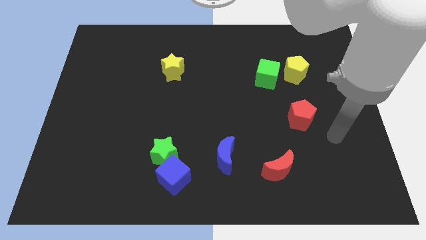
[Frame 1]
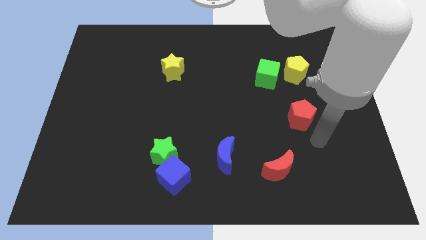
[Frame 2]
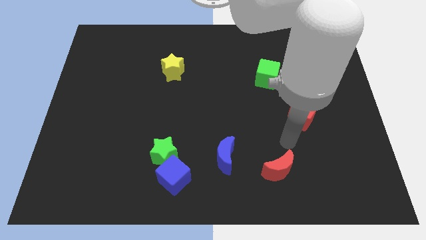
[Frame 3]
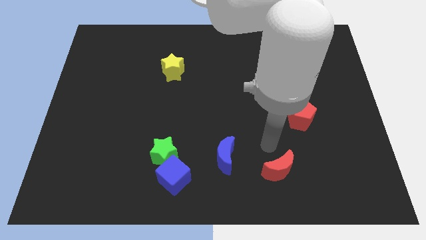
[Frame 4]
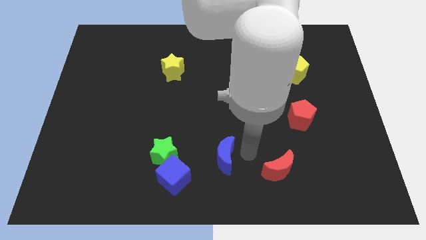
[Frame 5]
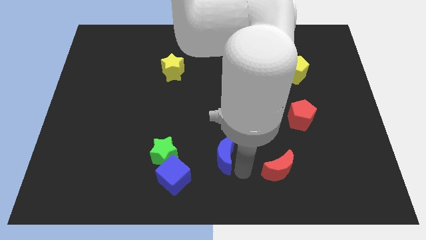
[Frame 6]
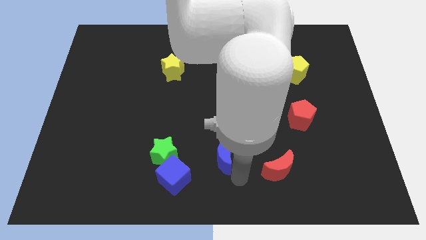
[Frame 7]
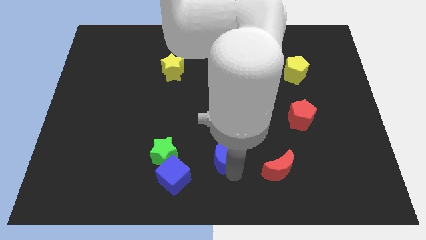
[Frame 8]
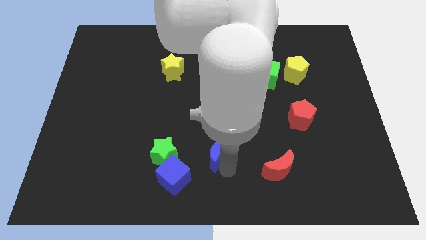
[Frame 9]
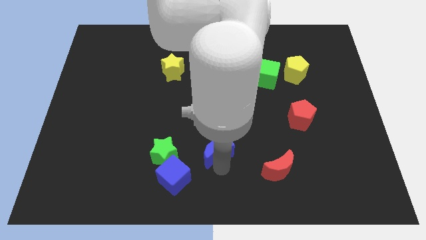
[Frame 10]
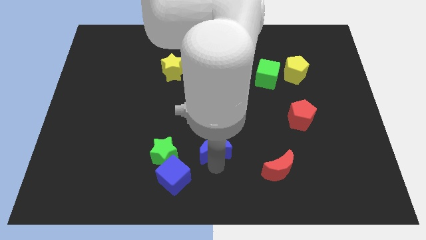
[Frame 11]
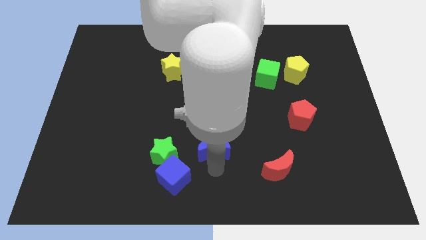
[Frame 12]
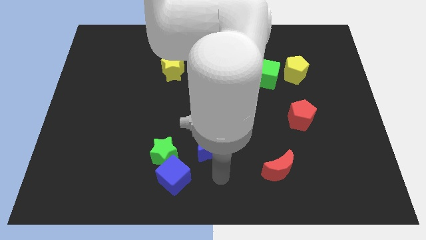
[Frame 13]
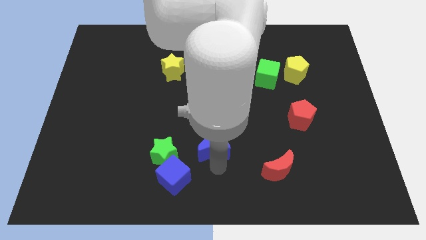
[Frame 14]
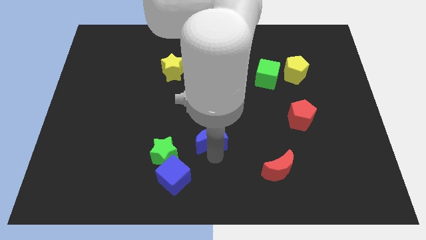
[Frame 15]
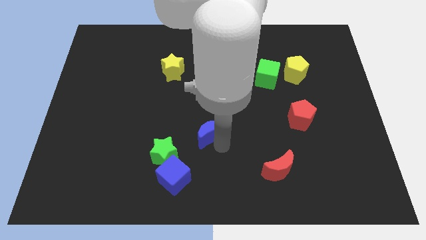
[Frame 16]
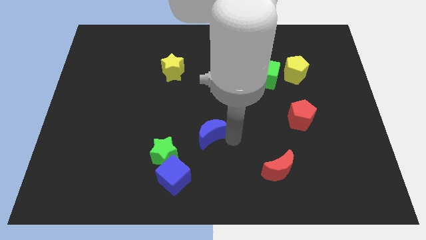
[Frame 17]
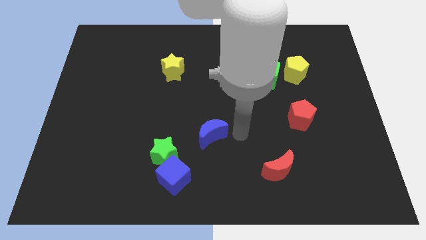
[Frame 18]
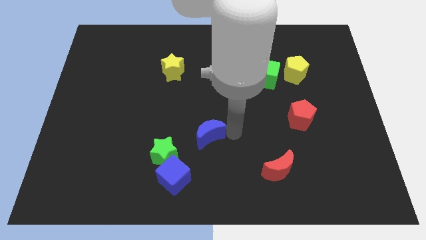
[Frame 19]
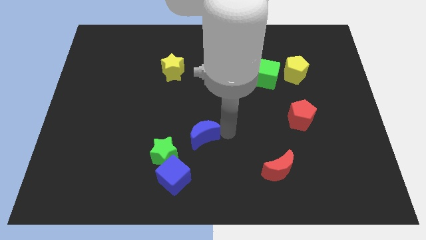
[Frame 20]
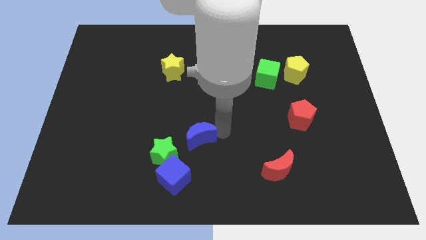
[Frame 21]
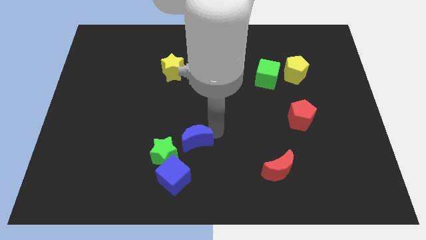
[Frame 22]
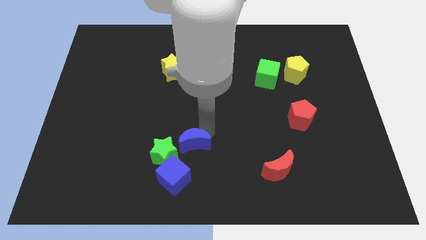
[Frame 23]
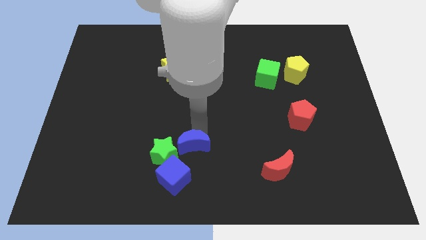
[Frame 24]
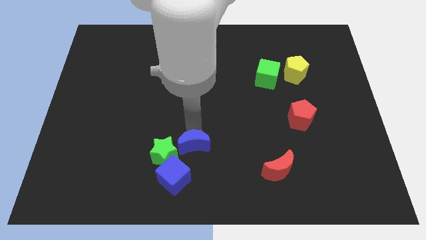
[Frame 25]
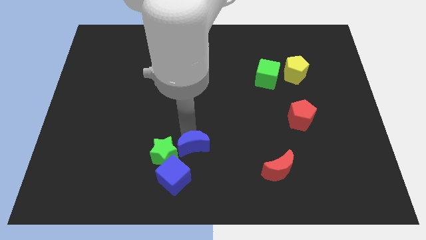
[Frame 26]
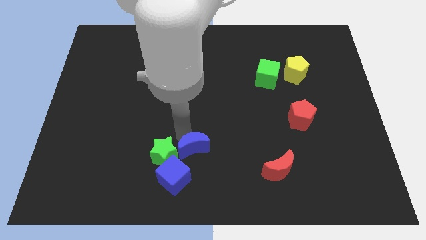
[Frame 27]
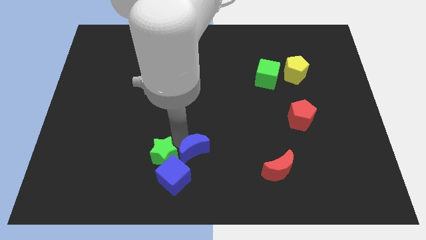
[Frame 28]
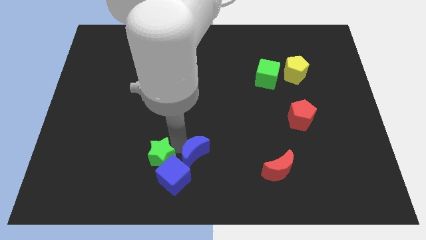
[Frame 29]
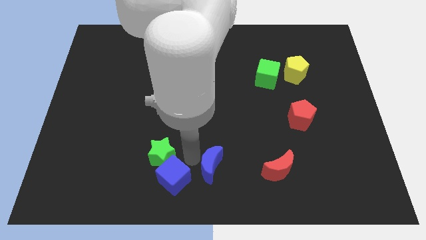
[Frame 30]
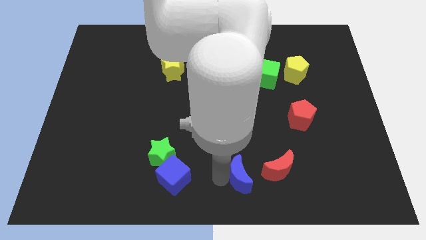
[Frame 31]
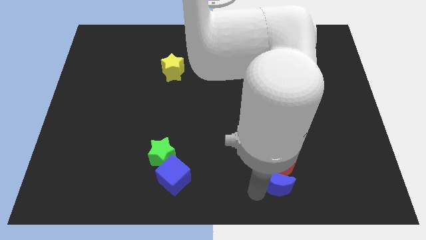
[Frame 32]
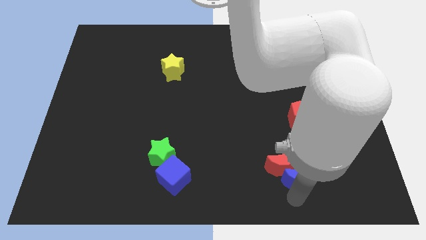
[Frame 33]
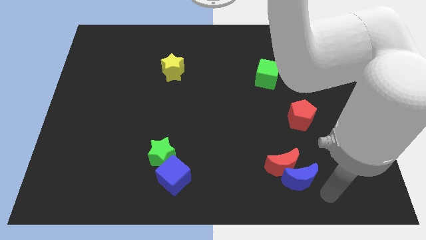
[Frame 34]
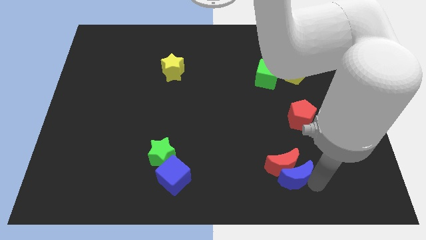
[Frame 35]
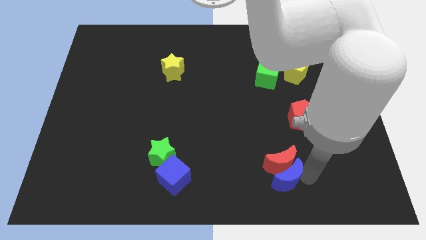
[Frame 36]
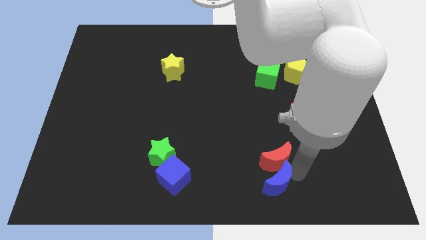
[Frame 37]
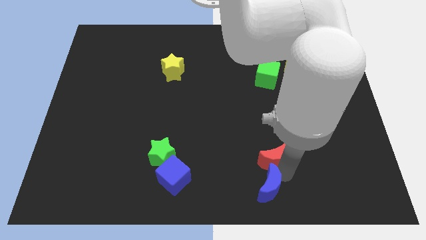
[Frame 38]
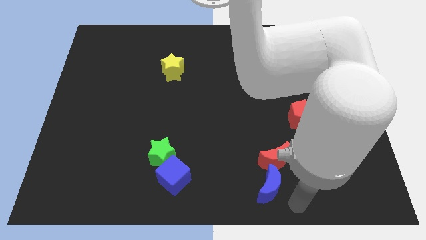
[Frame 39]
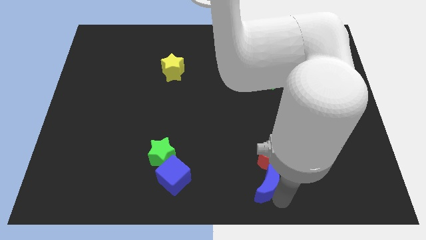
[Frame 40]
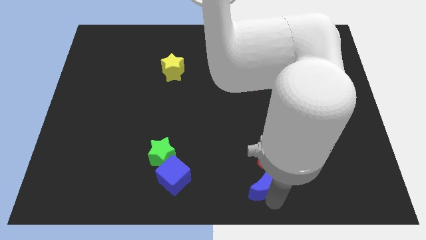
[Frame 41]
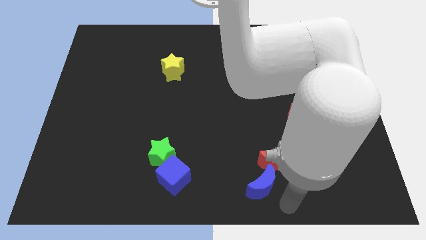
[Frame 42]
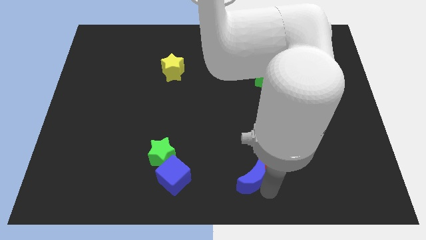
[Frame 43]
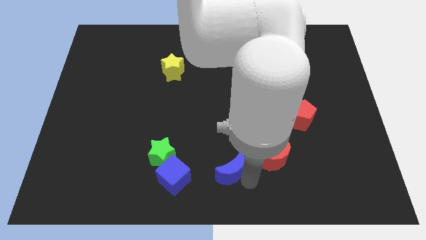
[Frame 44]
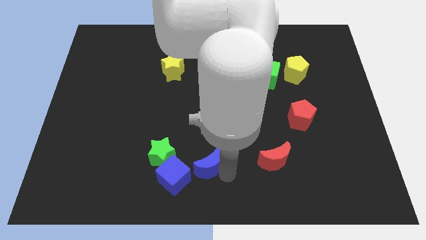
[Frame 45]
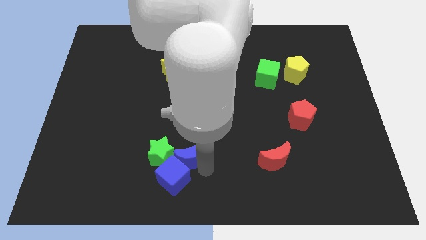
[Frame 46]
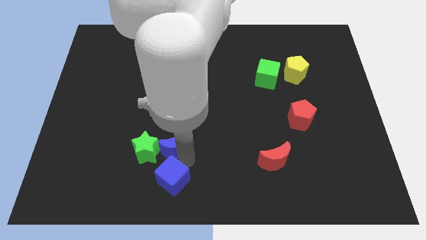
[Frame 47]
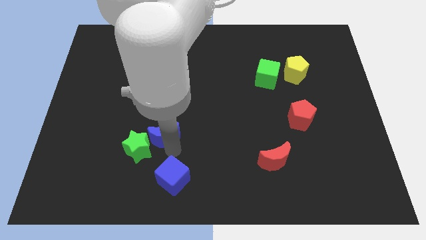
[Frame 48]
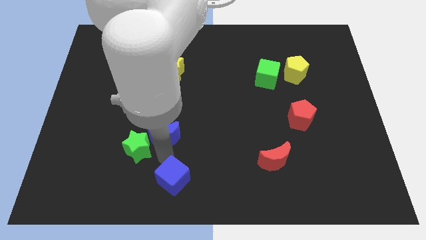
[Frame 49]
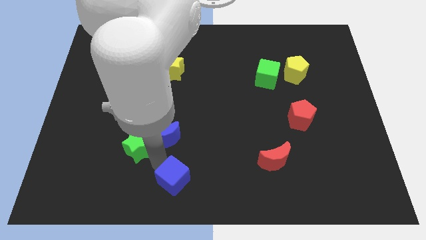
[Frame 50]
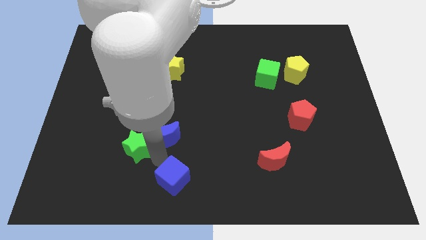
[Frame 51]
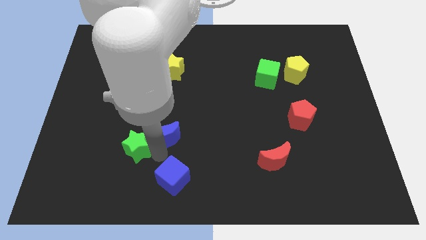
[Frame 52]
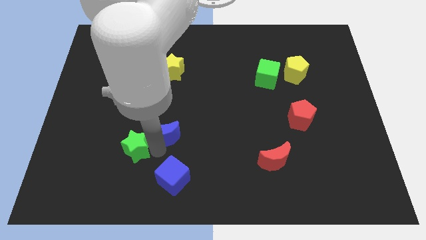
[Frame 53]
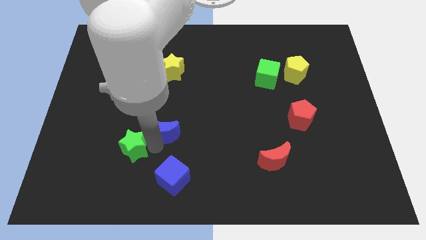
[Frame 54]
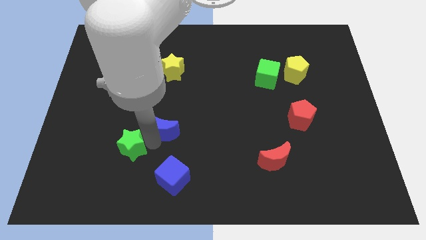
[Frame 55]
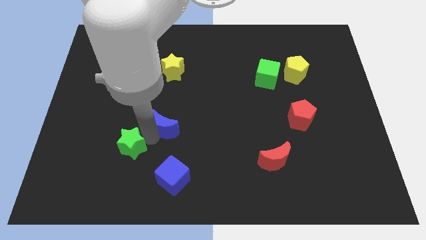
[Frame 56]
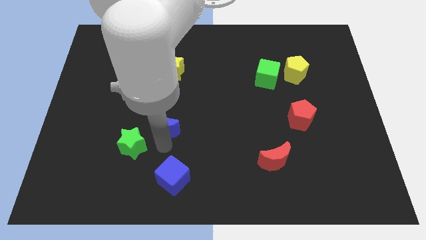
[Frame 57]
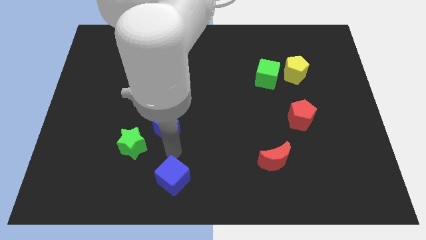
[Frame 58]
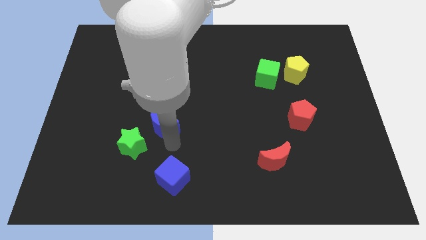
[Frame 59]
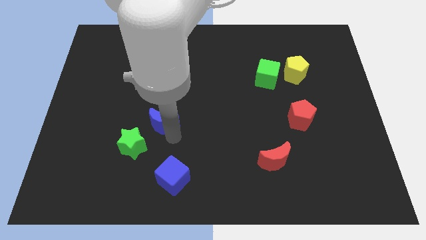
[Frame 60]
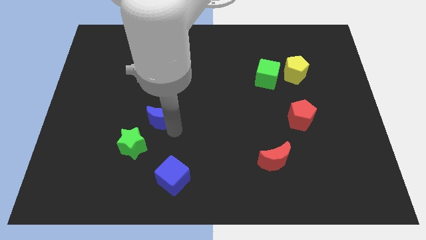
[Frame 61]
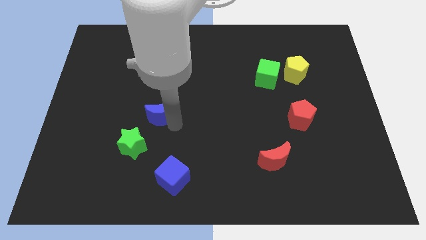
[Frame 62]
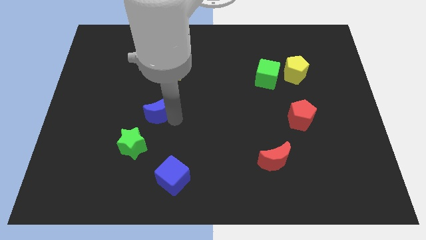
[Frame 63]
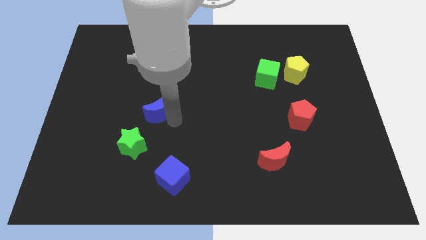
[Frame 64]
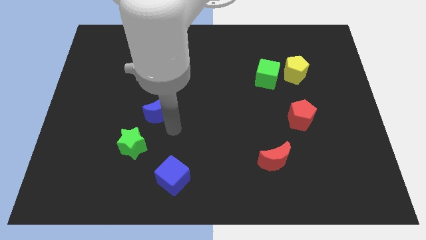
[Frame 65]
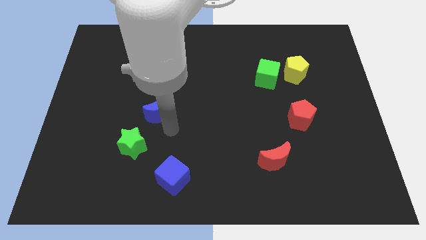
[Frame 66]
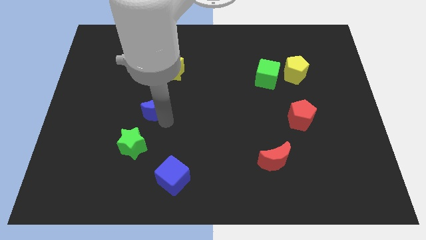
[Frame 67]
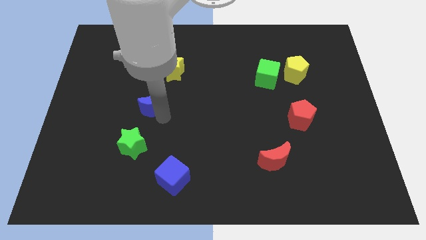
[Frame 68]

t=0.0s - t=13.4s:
slide the blue moon up and then left

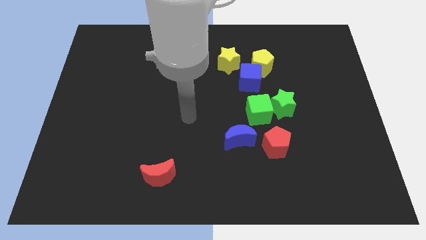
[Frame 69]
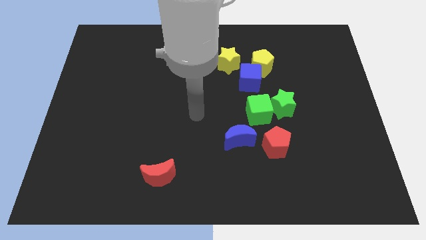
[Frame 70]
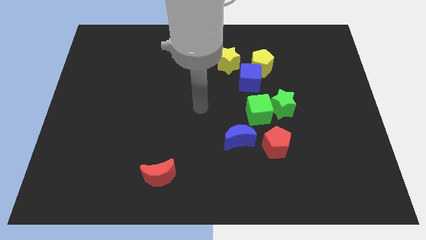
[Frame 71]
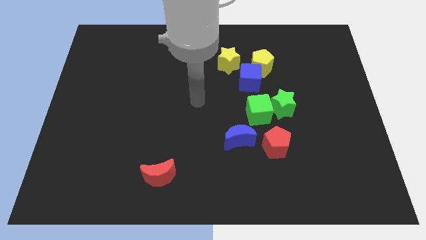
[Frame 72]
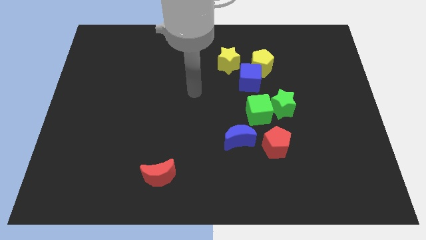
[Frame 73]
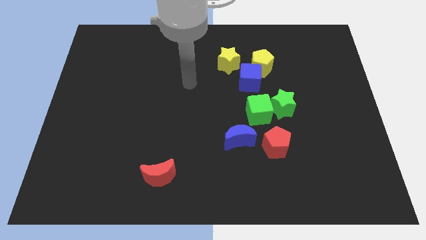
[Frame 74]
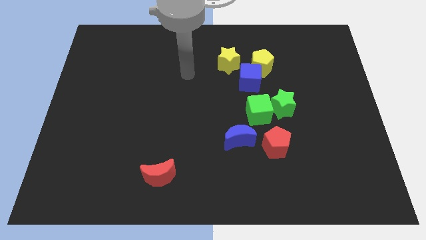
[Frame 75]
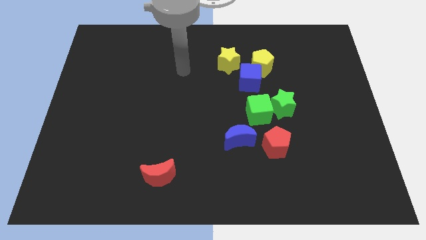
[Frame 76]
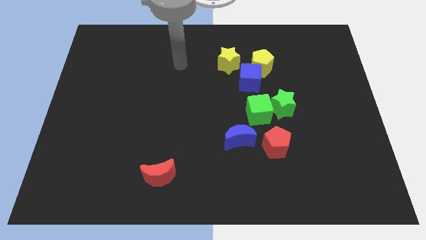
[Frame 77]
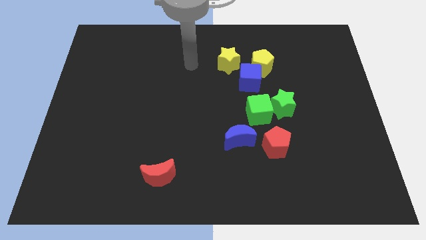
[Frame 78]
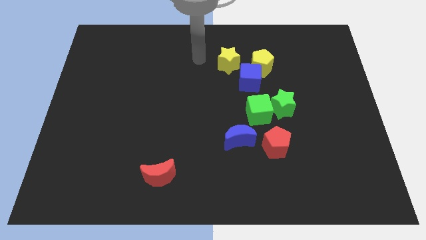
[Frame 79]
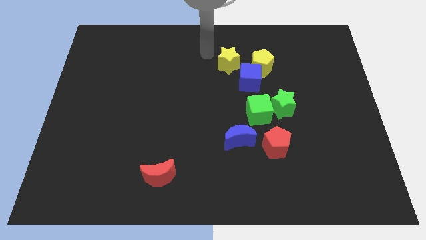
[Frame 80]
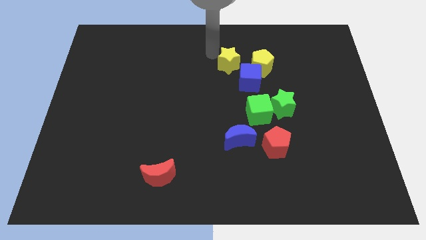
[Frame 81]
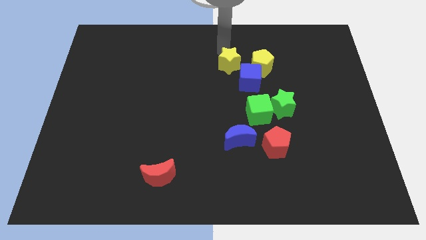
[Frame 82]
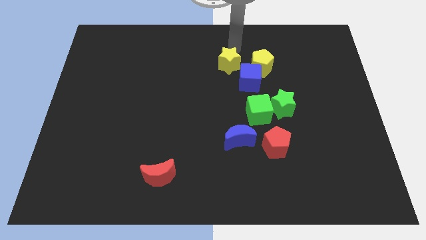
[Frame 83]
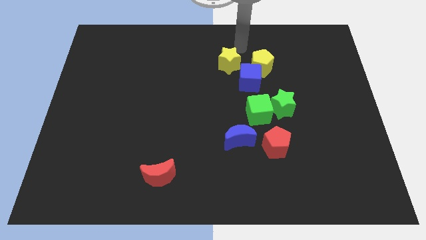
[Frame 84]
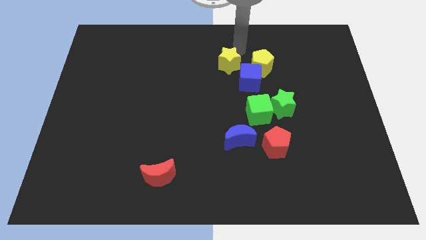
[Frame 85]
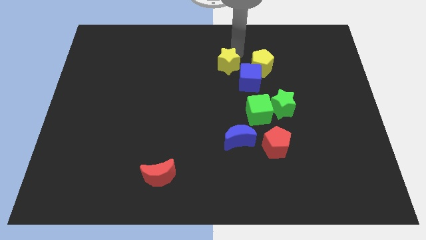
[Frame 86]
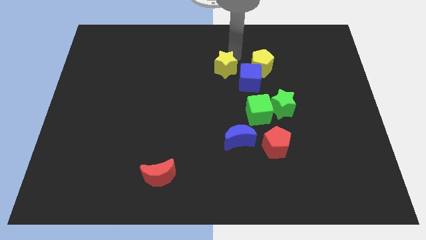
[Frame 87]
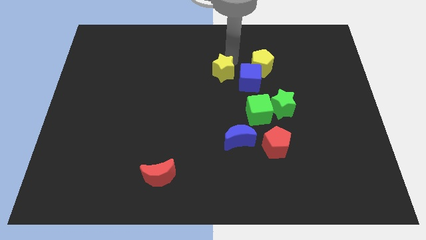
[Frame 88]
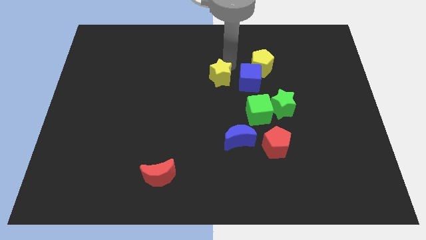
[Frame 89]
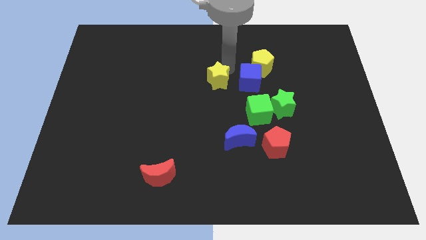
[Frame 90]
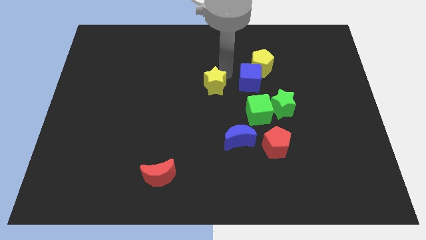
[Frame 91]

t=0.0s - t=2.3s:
slightly slide the yellow star downwards and then left
